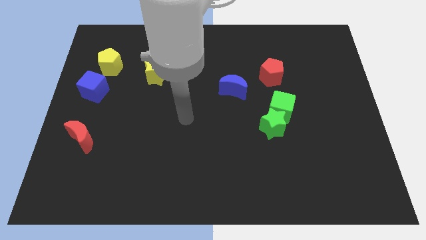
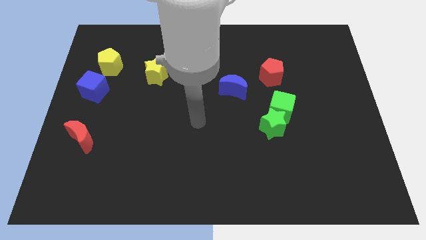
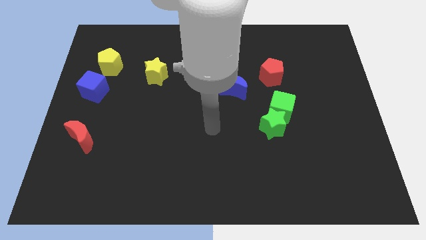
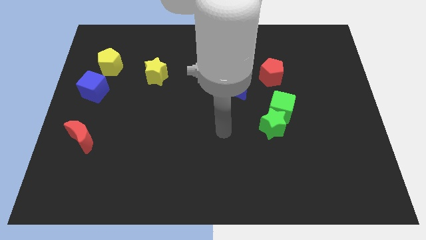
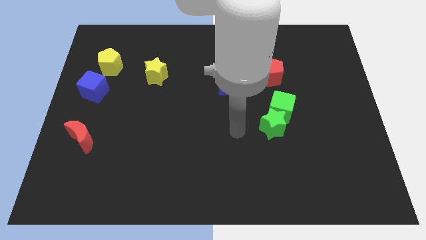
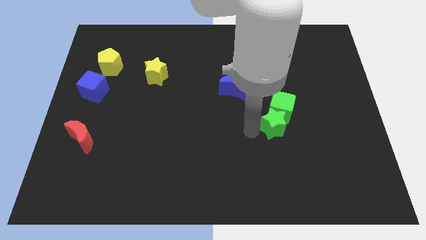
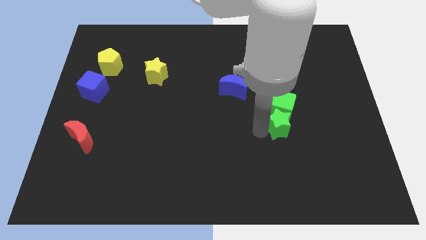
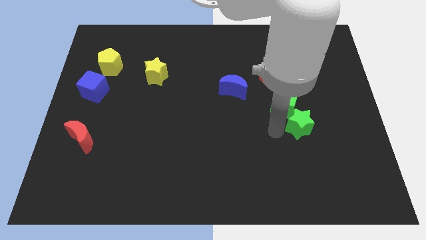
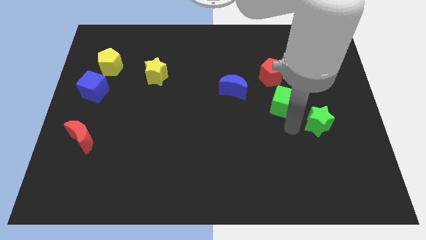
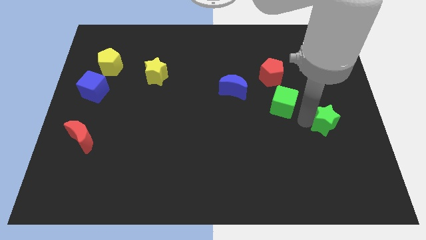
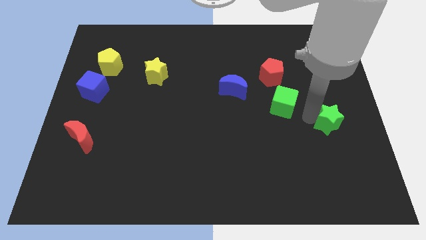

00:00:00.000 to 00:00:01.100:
separate the green cube from the green star

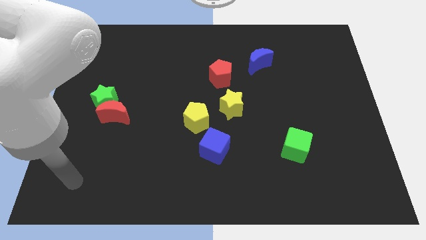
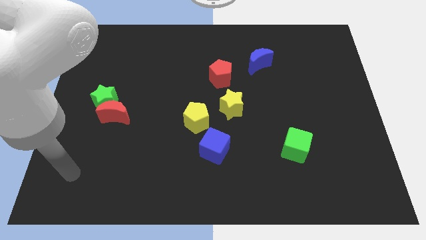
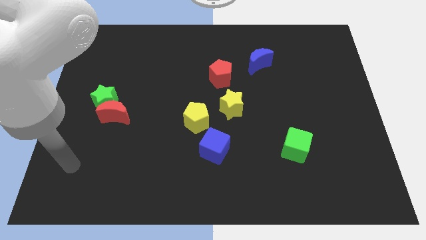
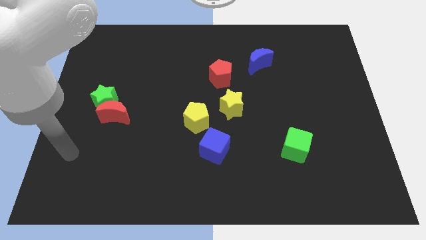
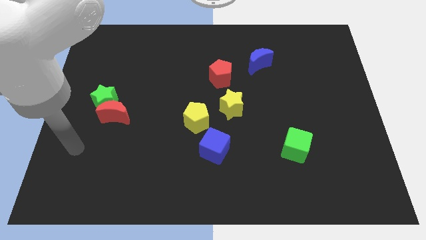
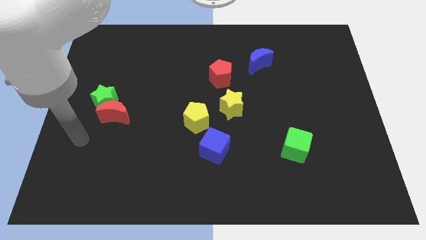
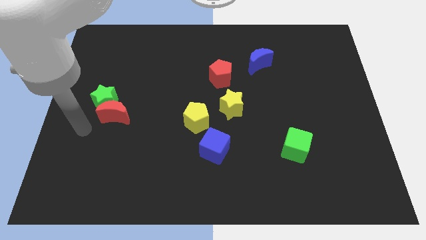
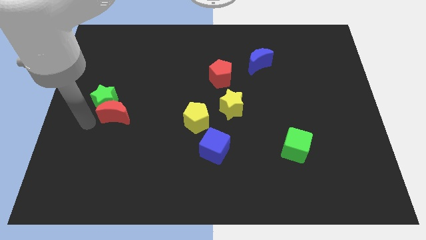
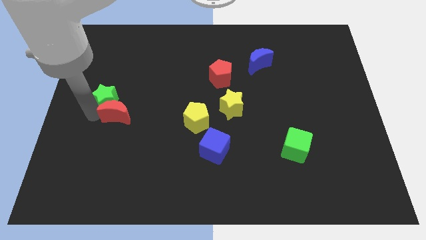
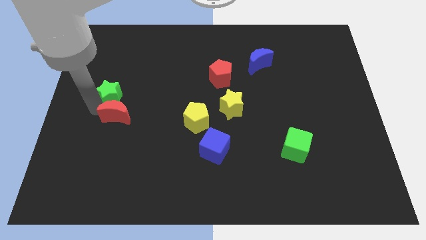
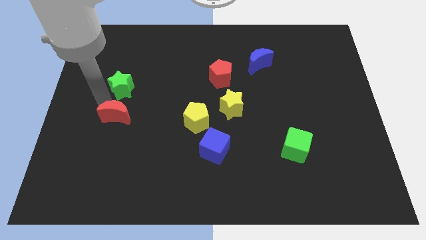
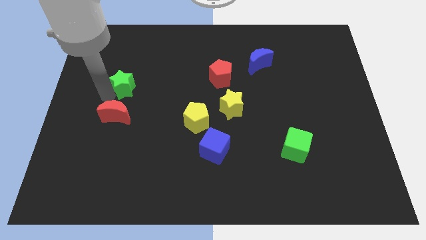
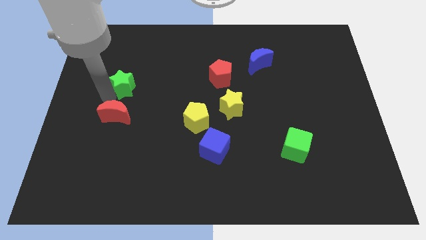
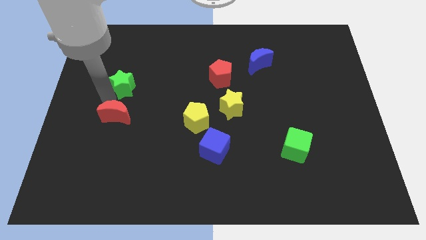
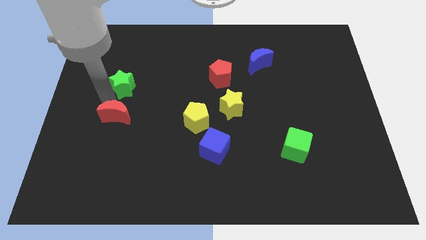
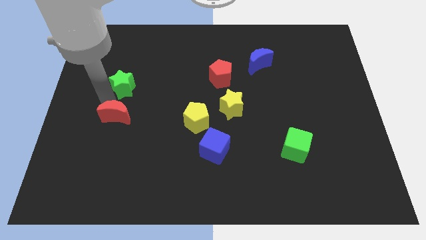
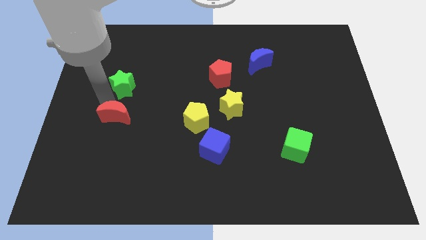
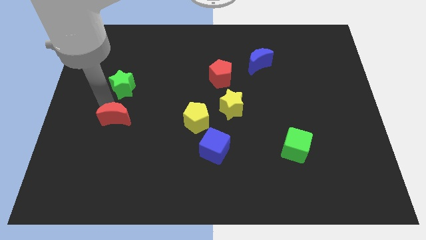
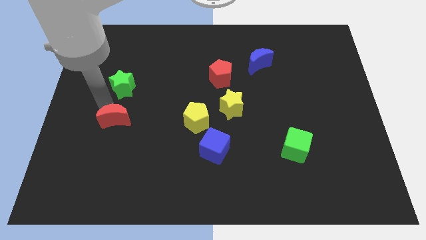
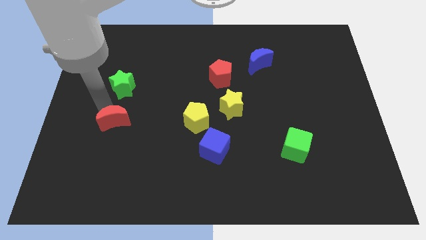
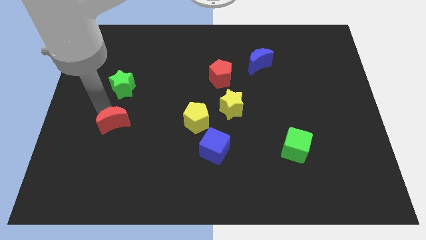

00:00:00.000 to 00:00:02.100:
pull the red moon apart from the green star

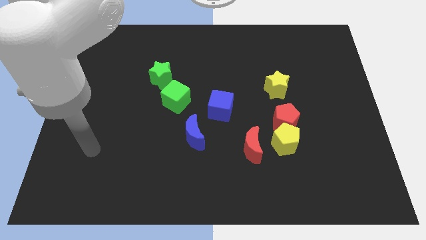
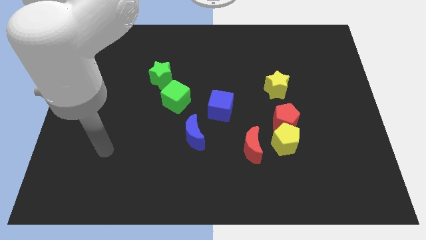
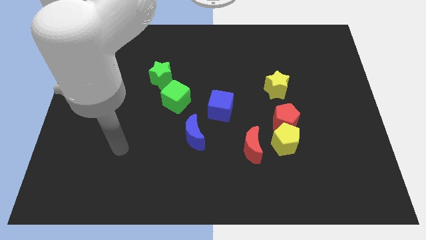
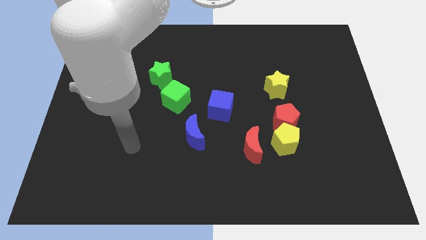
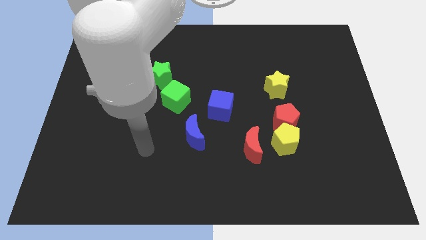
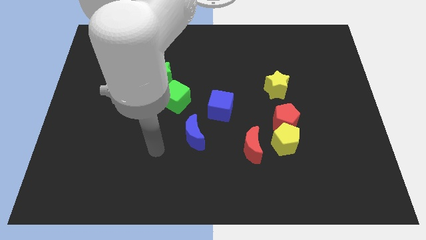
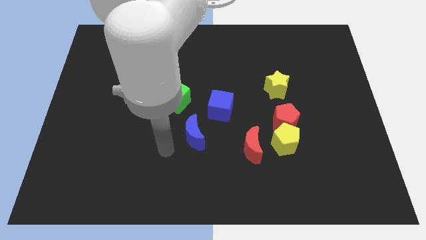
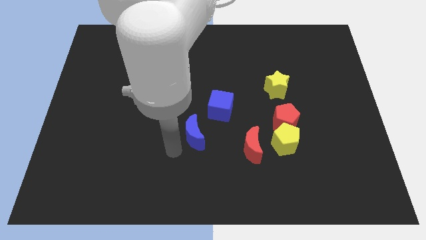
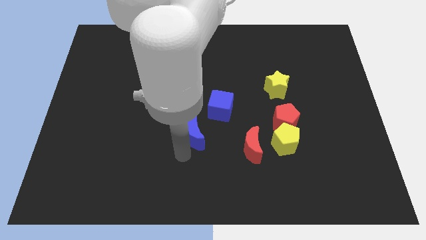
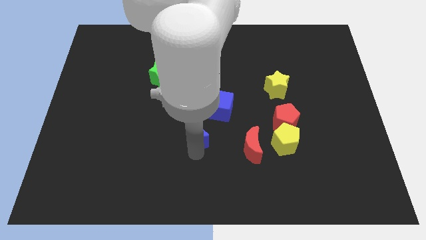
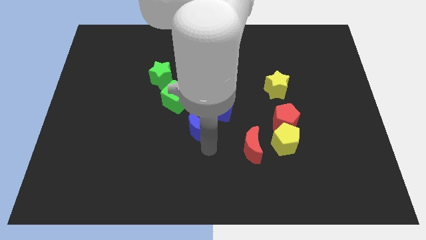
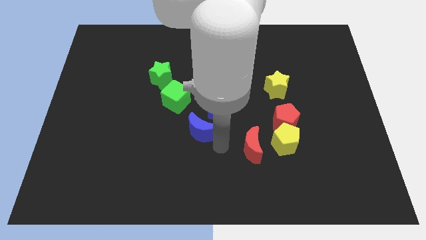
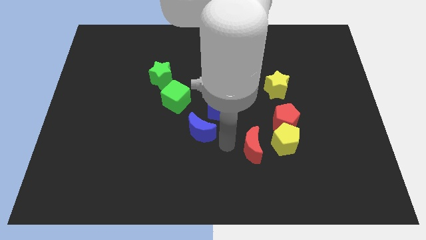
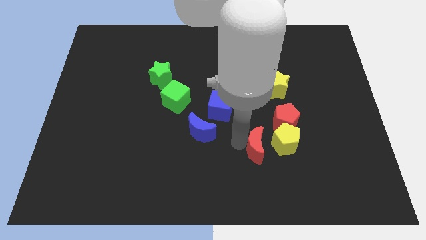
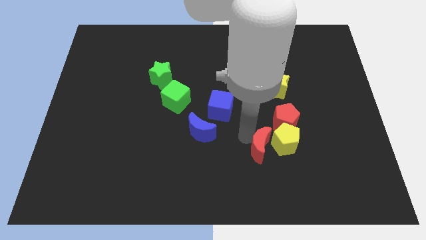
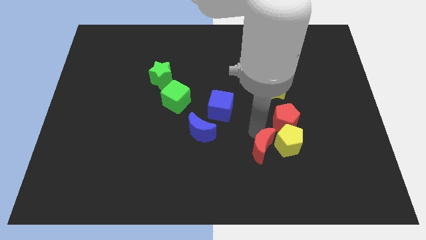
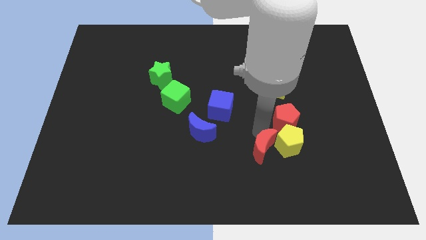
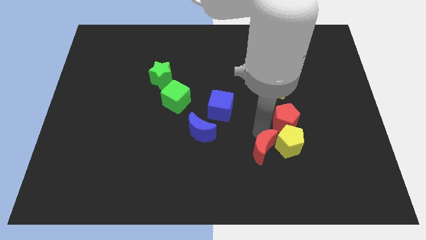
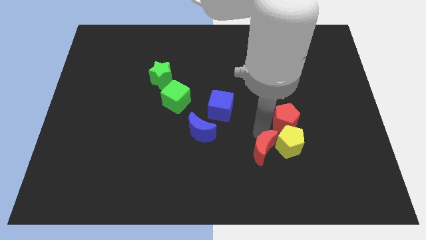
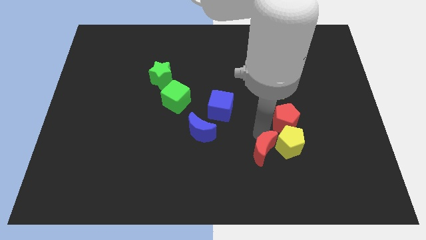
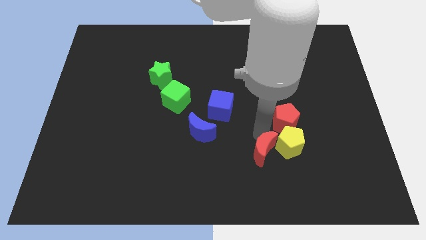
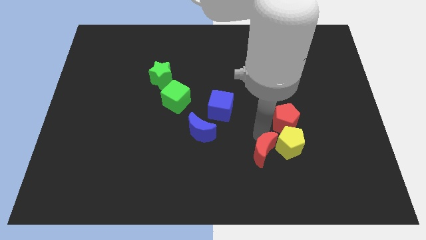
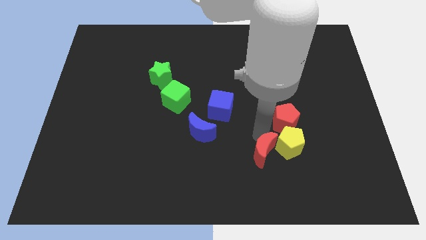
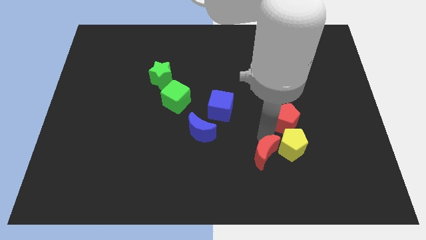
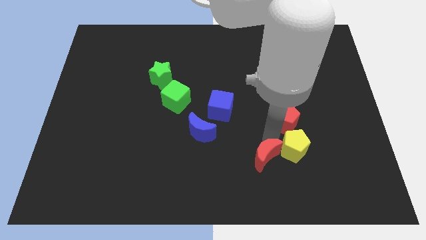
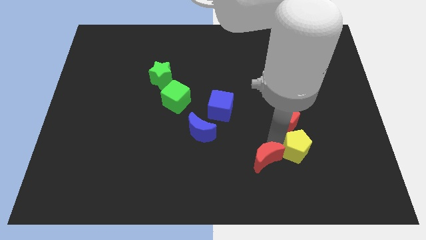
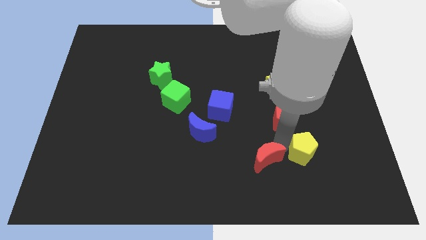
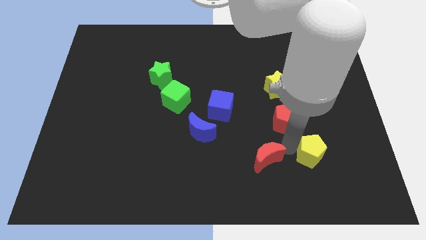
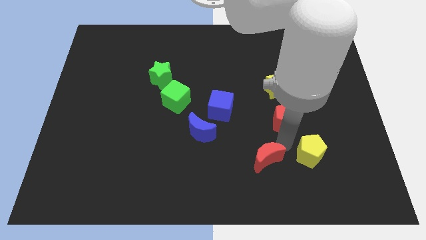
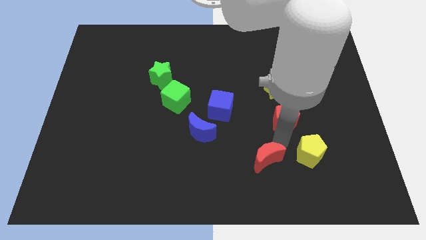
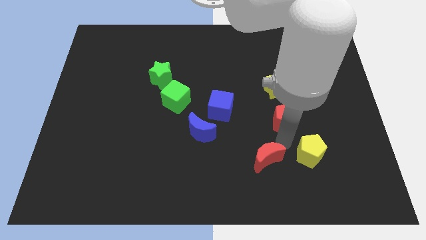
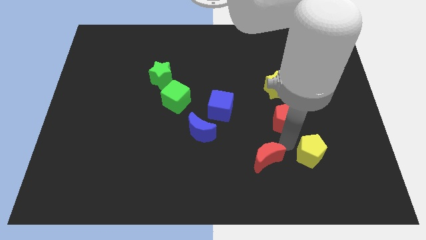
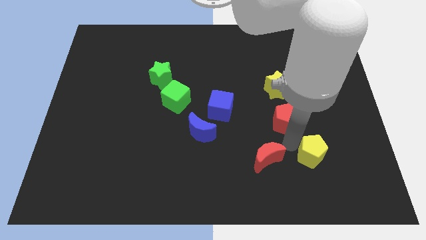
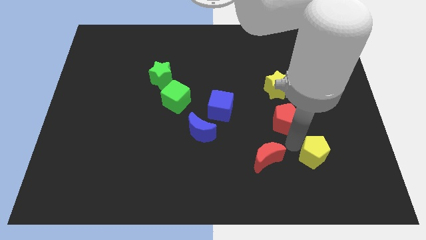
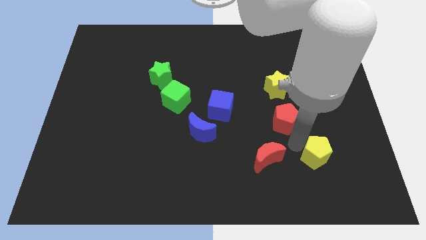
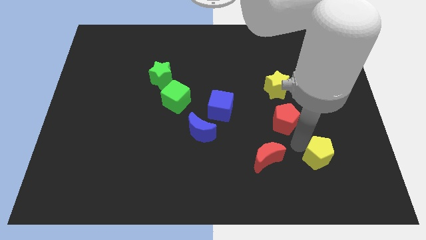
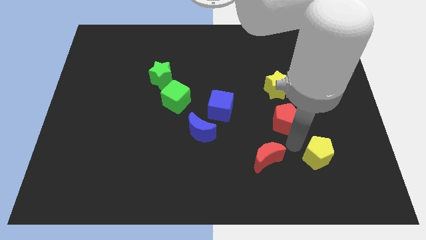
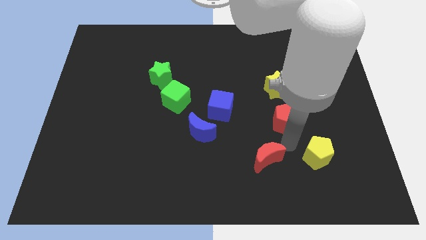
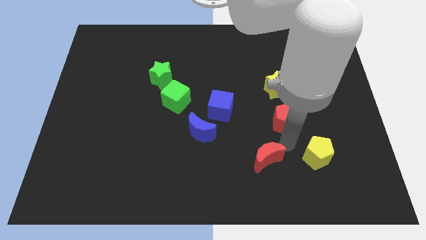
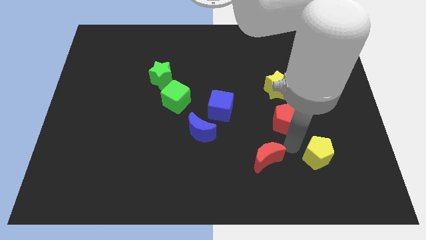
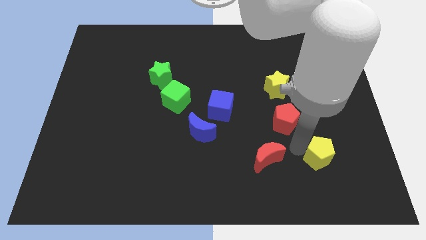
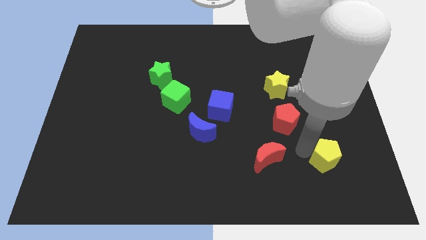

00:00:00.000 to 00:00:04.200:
pull the yellow pentagon apart from the red pentagon and red moon

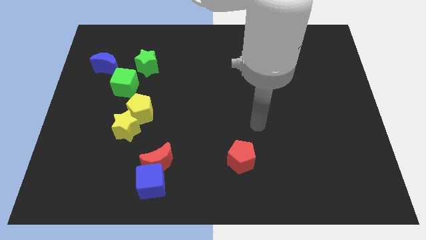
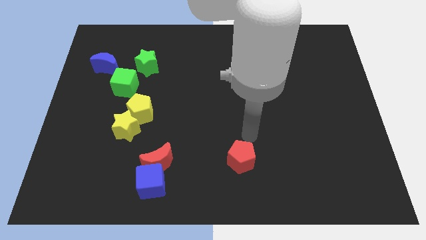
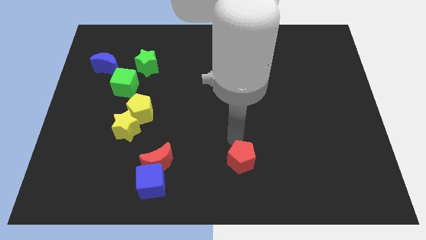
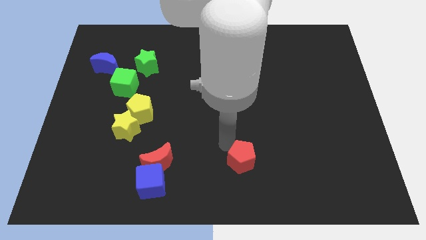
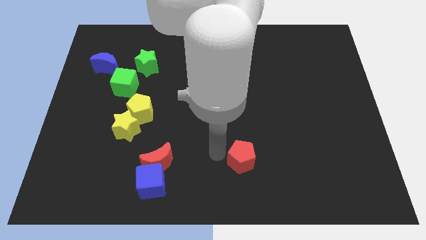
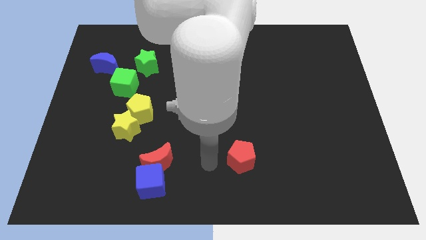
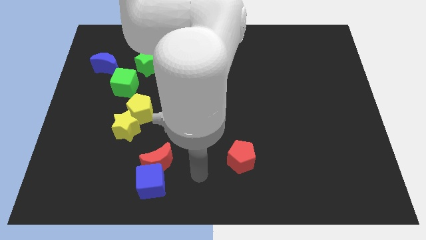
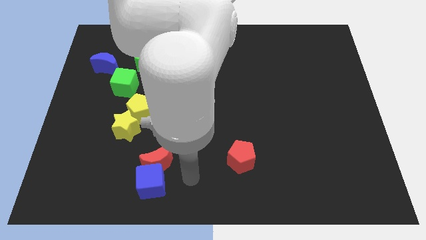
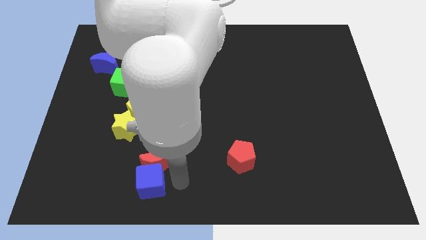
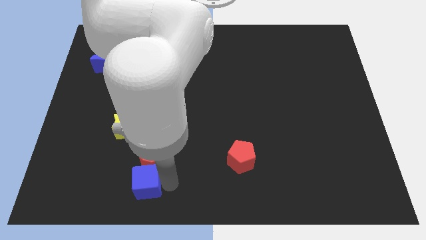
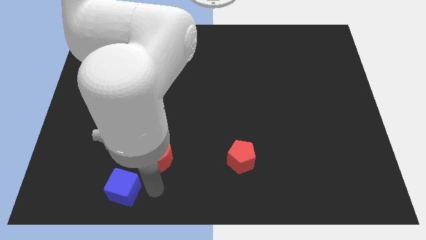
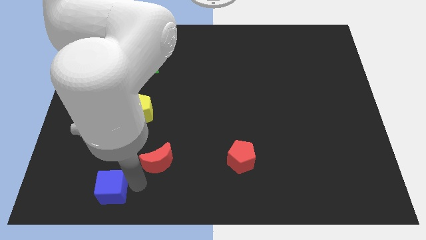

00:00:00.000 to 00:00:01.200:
pull the red moon apart from the blue cube

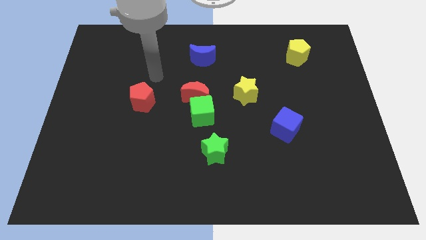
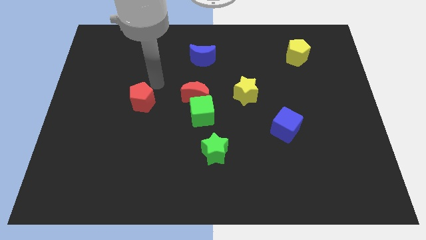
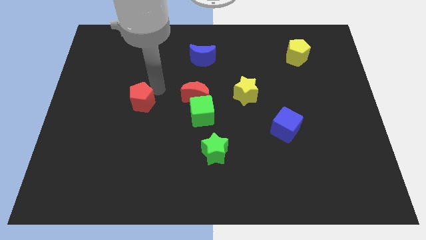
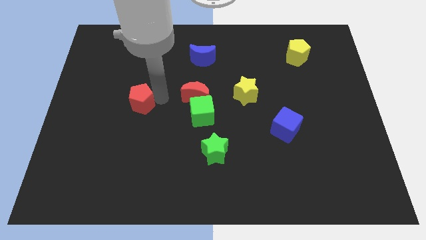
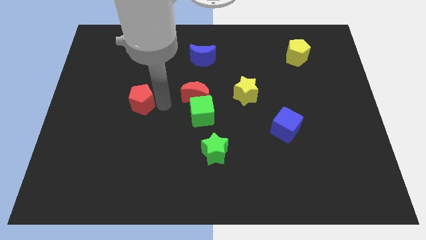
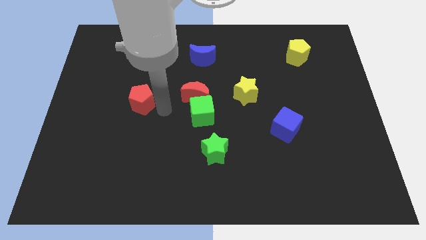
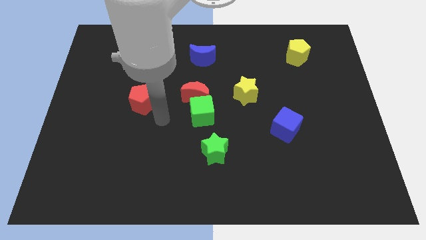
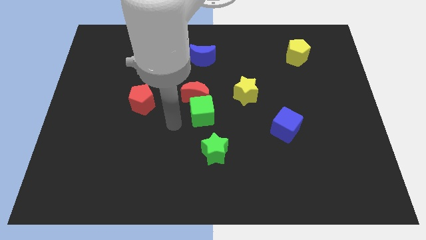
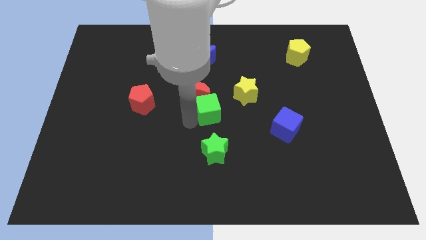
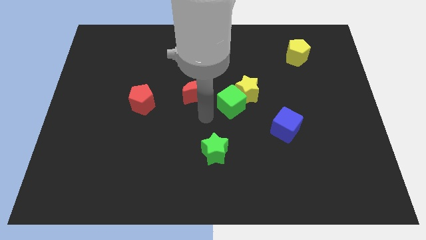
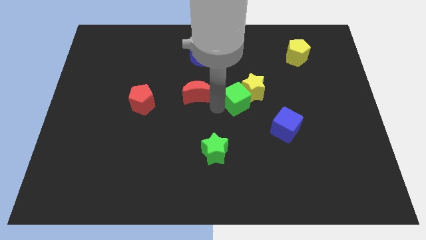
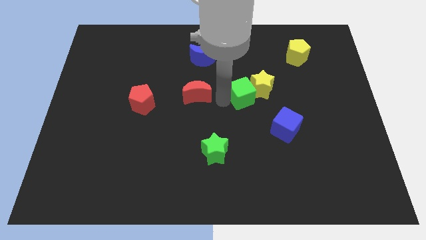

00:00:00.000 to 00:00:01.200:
pull the red moon apart from the green cube
